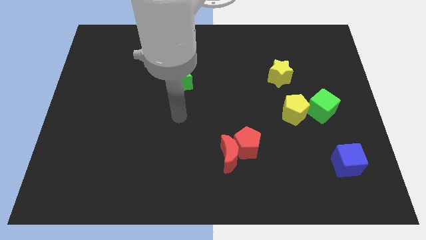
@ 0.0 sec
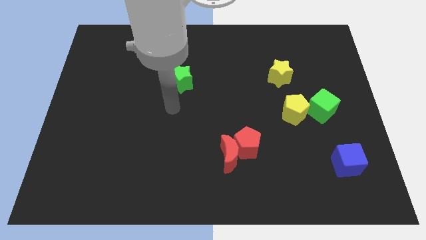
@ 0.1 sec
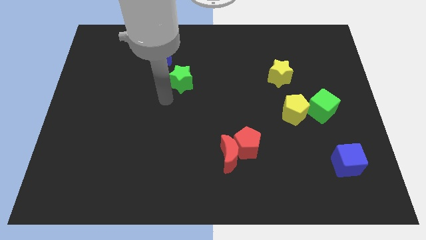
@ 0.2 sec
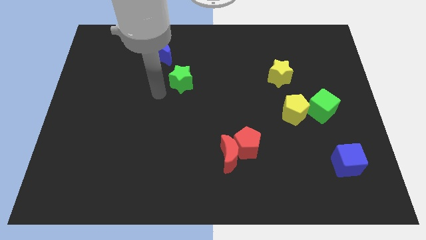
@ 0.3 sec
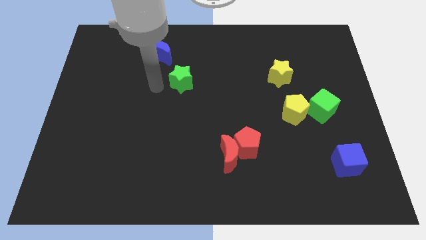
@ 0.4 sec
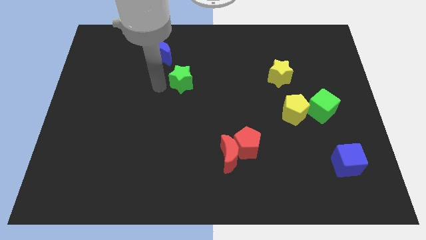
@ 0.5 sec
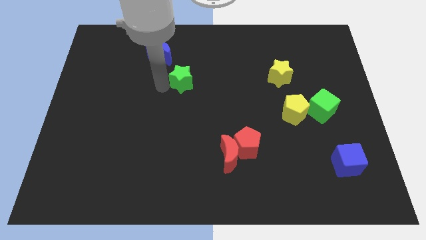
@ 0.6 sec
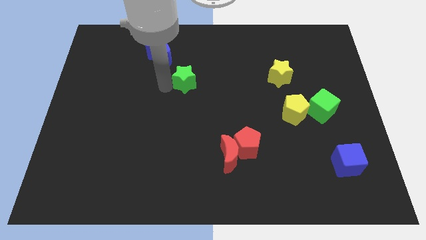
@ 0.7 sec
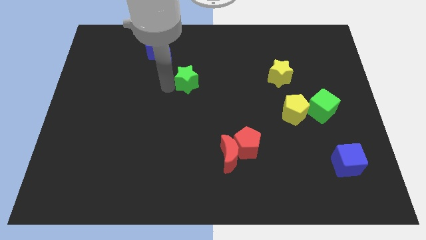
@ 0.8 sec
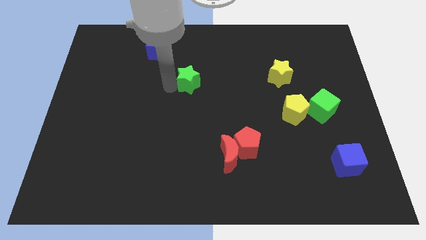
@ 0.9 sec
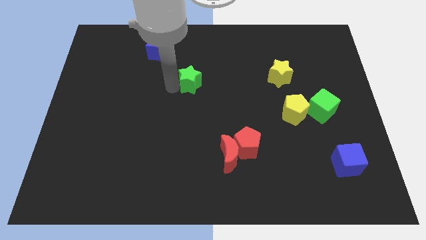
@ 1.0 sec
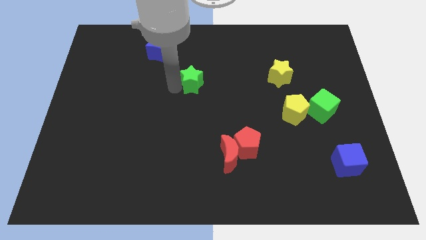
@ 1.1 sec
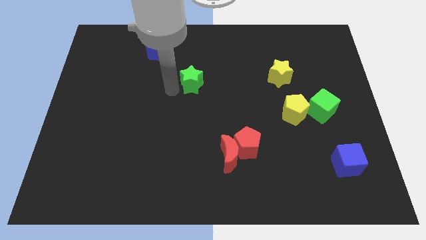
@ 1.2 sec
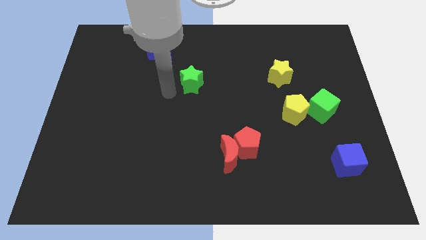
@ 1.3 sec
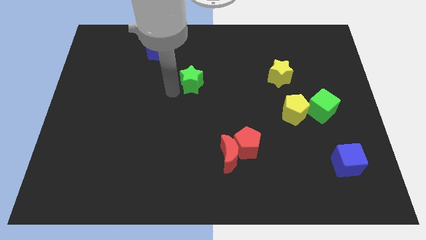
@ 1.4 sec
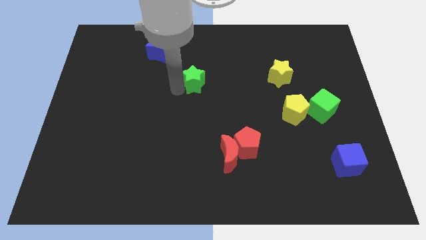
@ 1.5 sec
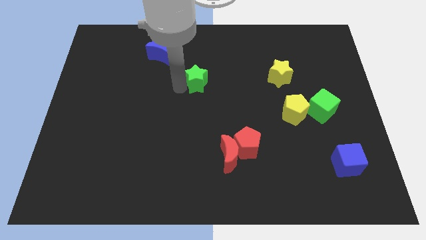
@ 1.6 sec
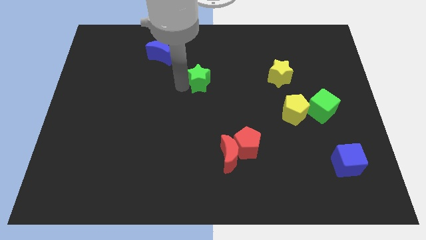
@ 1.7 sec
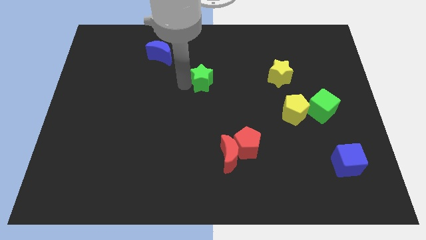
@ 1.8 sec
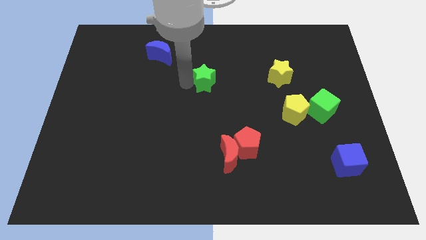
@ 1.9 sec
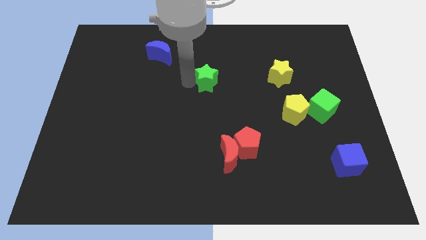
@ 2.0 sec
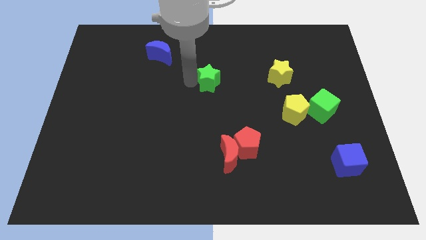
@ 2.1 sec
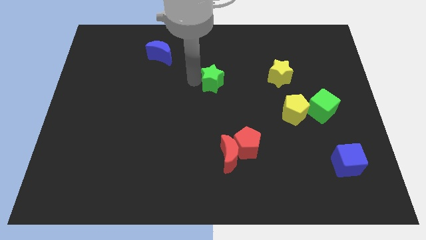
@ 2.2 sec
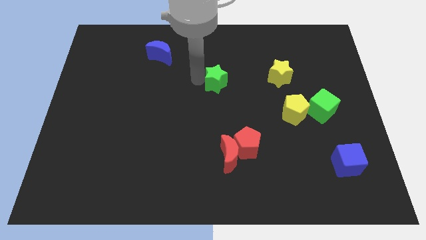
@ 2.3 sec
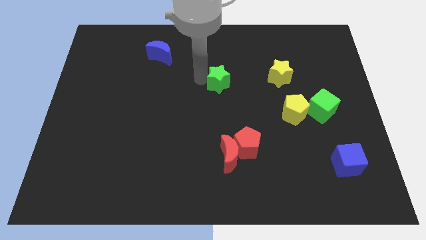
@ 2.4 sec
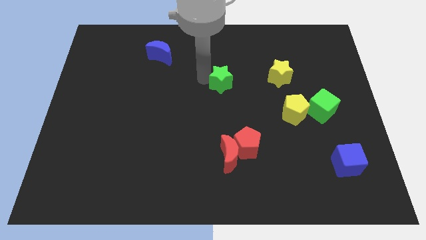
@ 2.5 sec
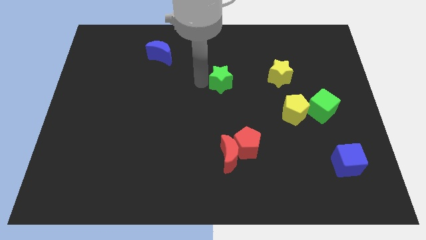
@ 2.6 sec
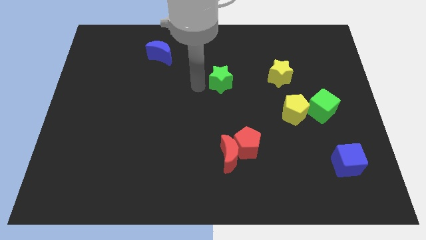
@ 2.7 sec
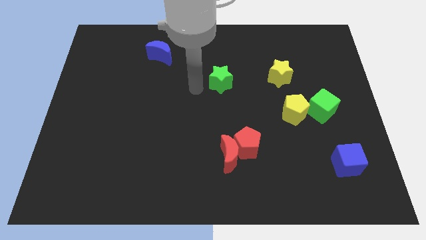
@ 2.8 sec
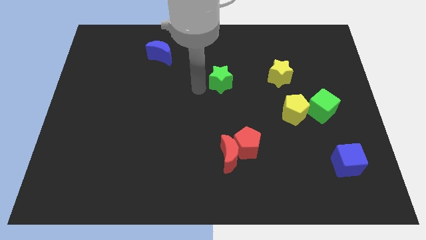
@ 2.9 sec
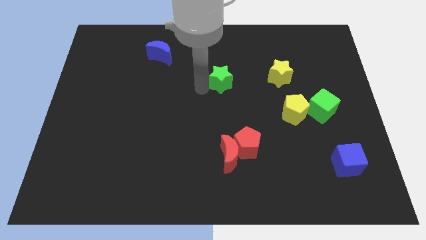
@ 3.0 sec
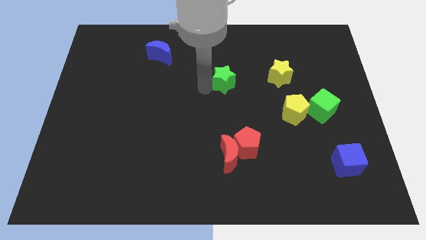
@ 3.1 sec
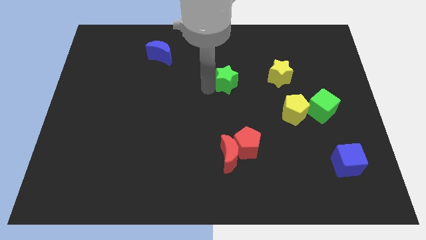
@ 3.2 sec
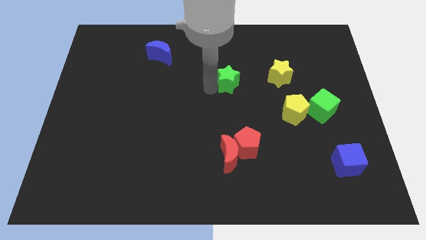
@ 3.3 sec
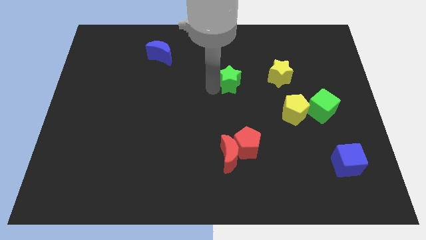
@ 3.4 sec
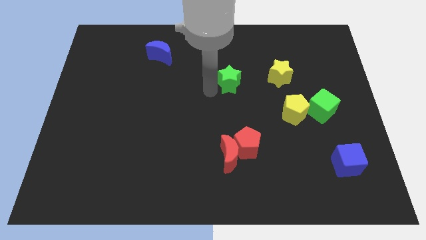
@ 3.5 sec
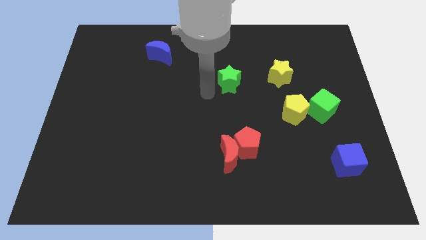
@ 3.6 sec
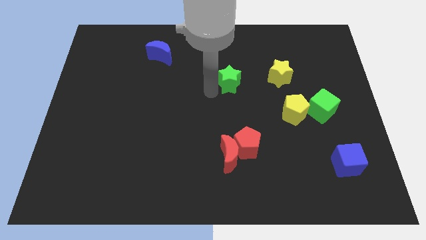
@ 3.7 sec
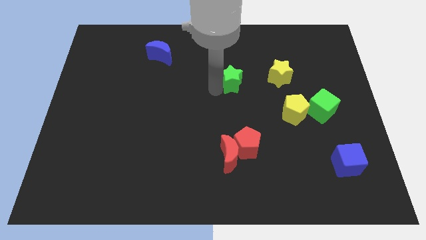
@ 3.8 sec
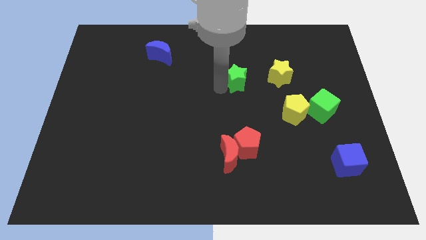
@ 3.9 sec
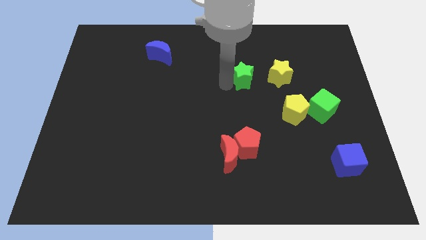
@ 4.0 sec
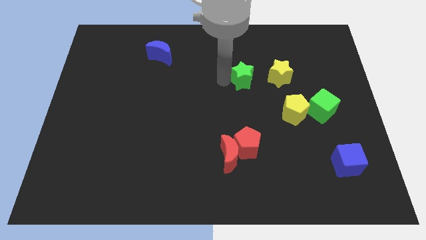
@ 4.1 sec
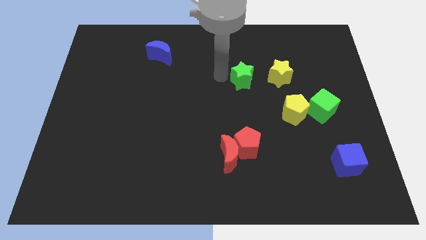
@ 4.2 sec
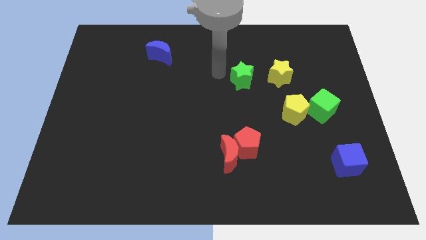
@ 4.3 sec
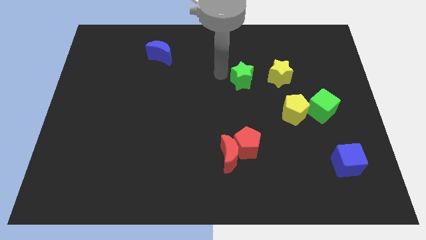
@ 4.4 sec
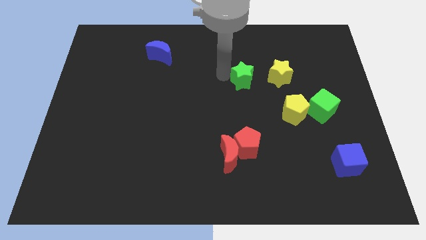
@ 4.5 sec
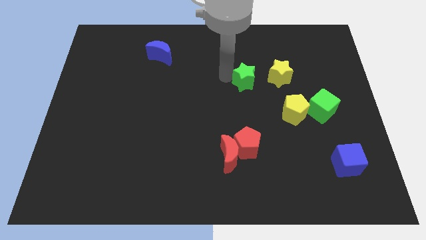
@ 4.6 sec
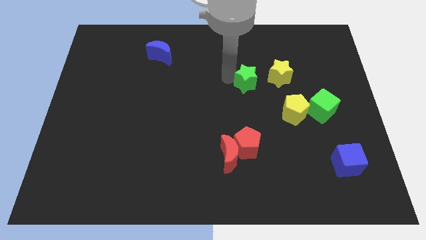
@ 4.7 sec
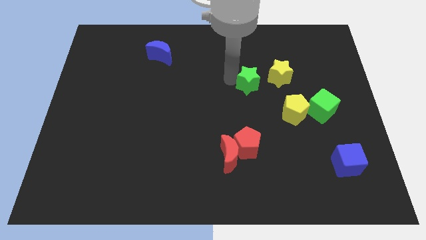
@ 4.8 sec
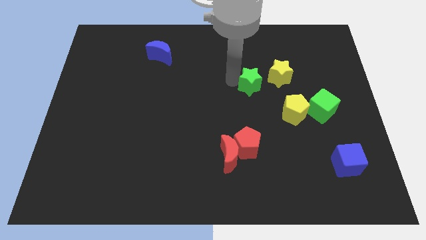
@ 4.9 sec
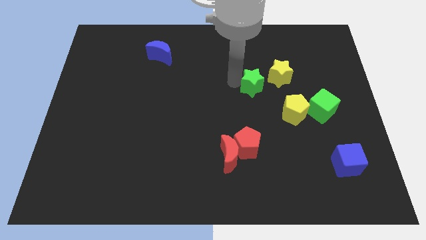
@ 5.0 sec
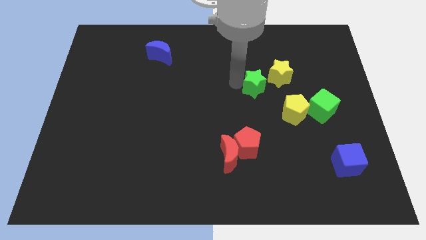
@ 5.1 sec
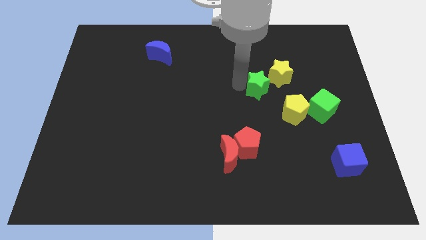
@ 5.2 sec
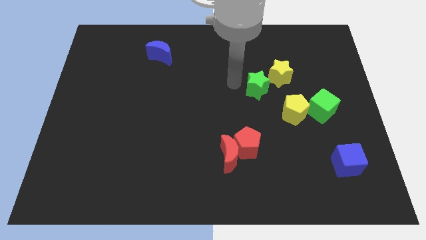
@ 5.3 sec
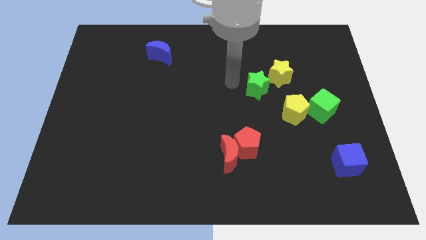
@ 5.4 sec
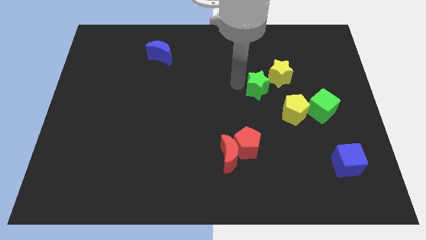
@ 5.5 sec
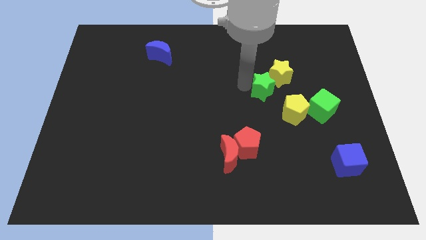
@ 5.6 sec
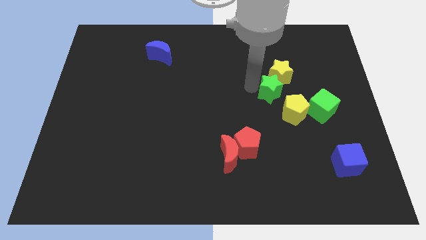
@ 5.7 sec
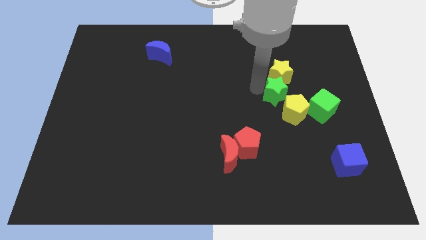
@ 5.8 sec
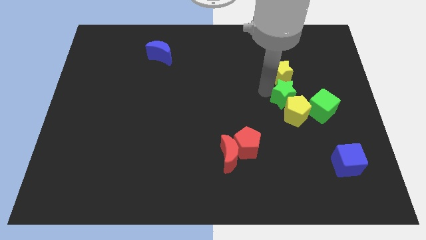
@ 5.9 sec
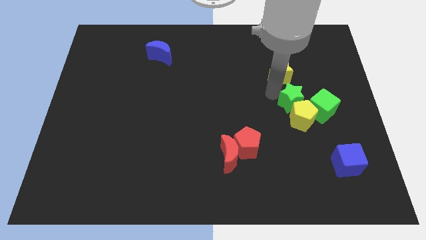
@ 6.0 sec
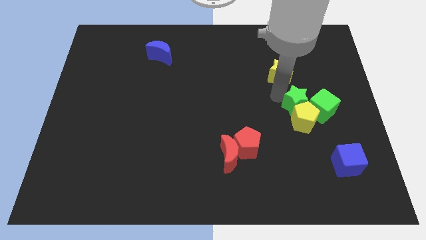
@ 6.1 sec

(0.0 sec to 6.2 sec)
push the green star towards the green cube

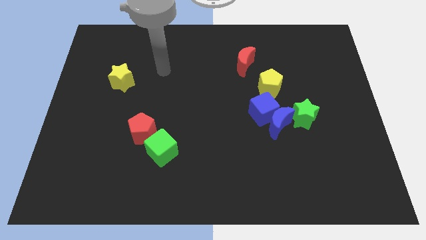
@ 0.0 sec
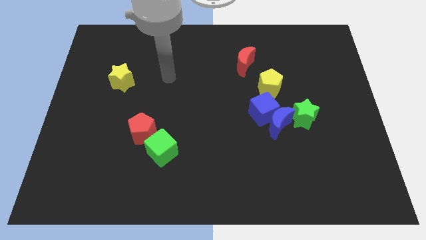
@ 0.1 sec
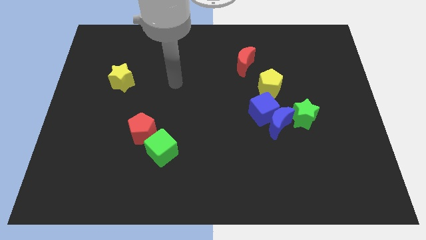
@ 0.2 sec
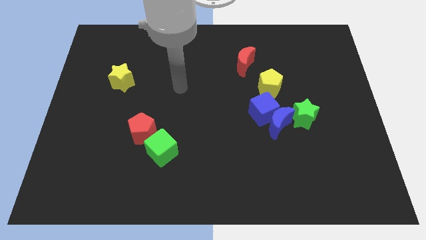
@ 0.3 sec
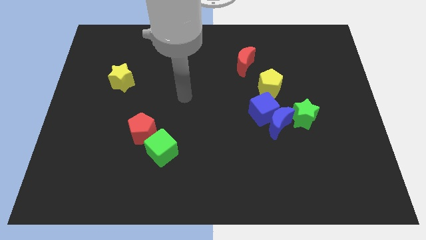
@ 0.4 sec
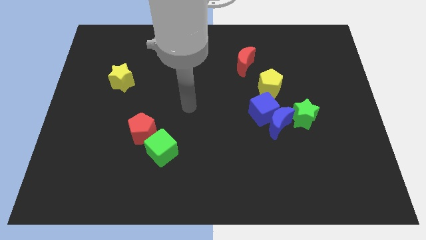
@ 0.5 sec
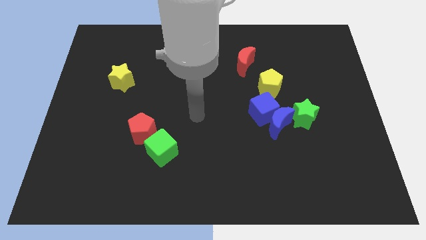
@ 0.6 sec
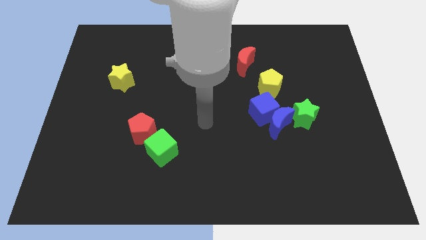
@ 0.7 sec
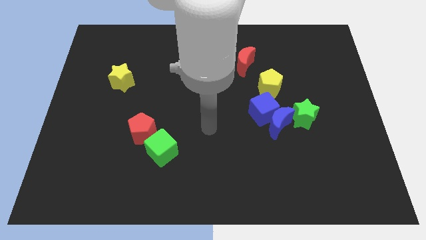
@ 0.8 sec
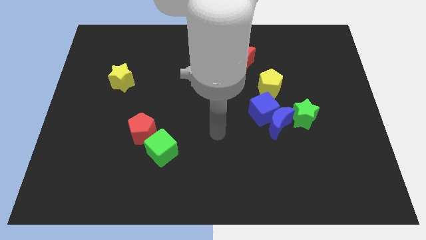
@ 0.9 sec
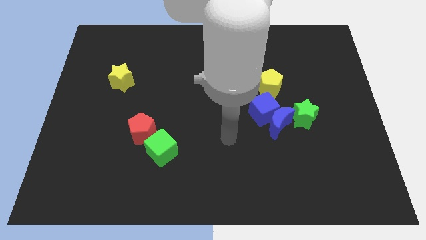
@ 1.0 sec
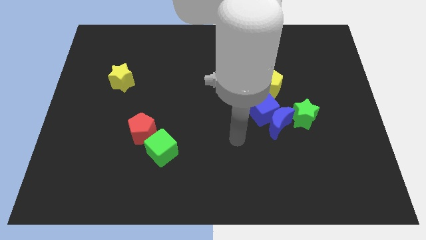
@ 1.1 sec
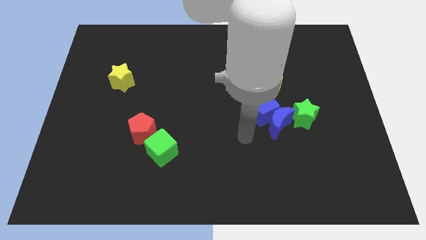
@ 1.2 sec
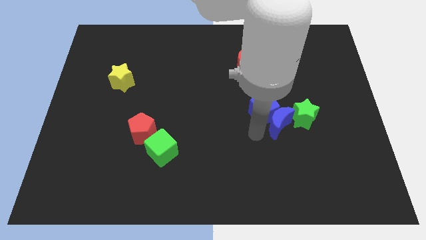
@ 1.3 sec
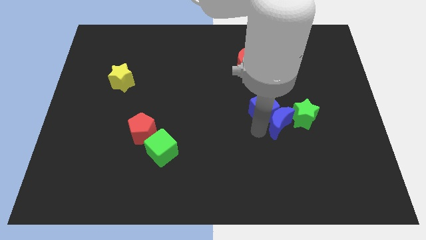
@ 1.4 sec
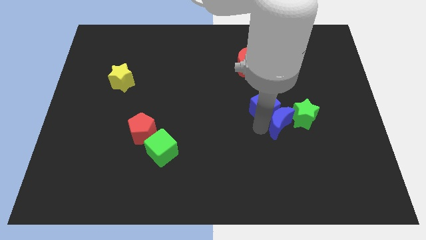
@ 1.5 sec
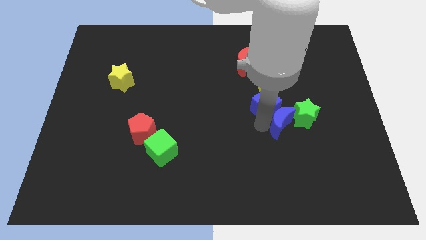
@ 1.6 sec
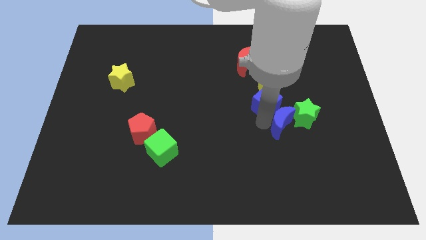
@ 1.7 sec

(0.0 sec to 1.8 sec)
push the blue cube to the yellow pentagon
